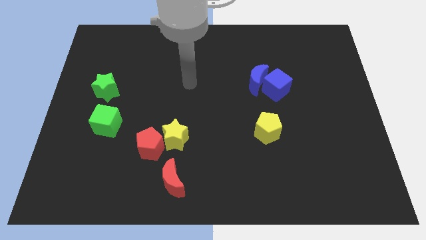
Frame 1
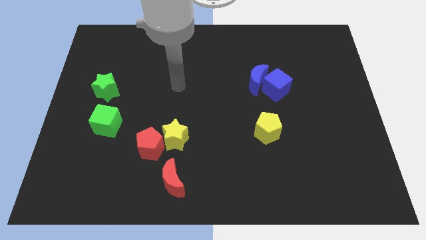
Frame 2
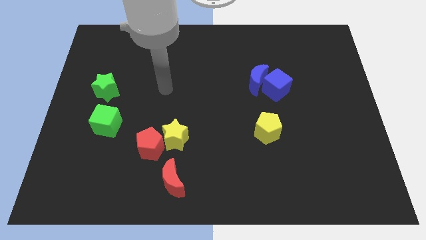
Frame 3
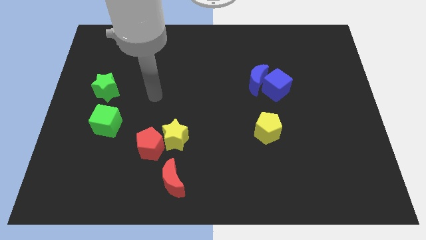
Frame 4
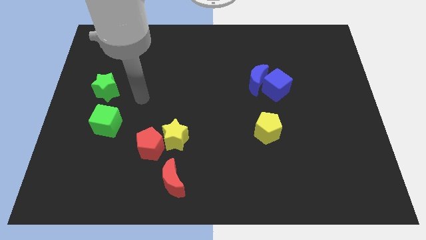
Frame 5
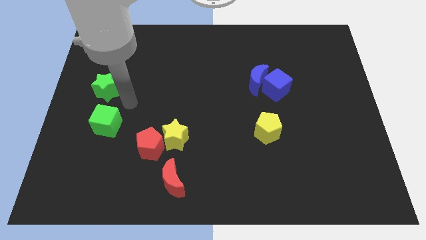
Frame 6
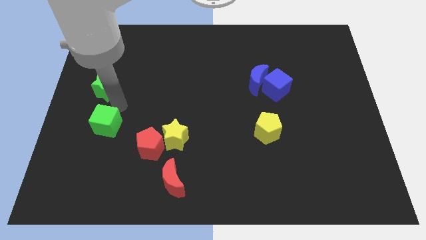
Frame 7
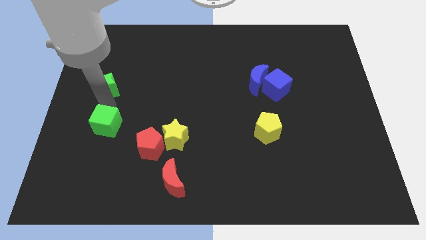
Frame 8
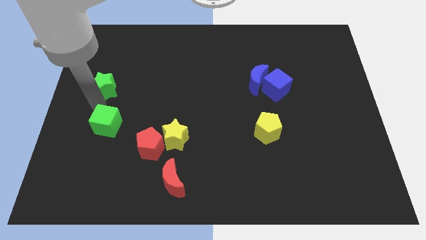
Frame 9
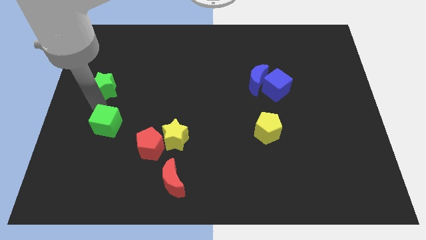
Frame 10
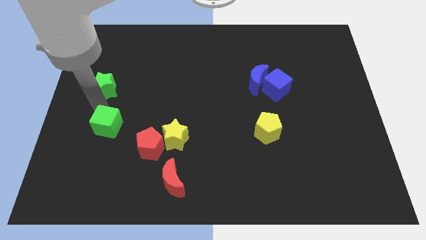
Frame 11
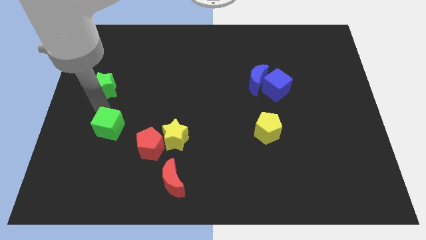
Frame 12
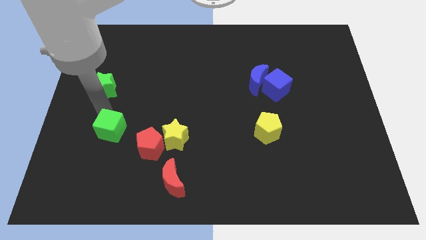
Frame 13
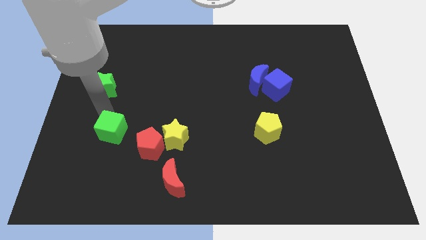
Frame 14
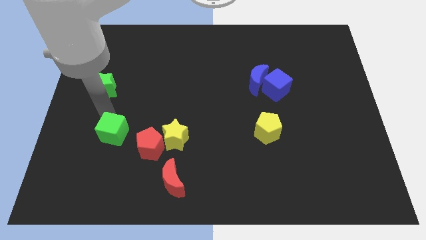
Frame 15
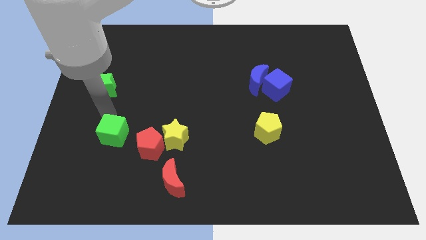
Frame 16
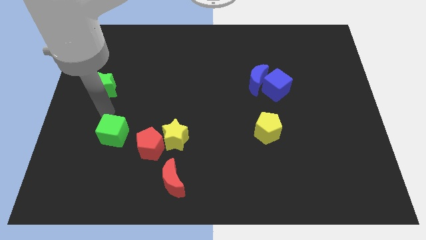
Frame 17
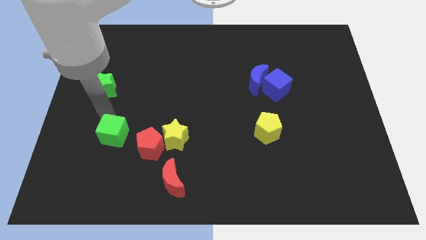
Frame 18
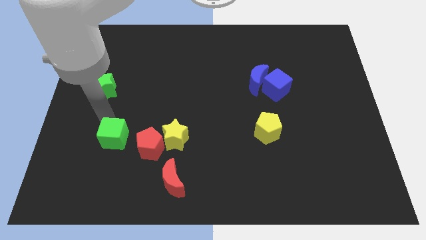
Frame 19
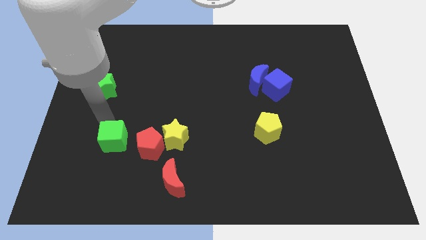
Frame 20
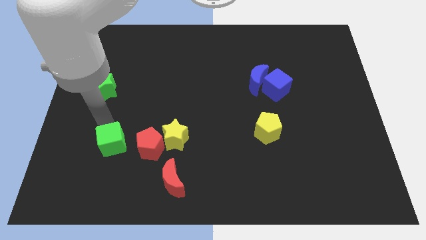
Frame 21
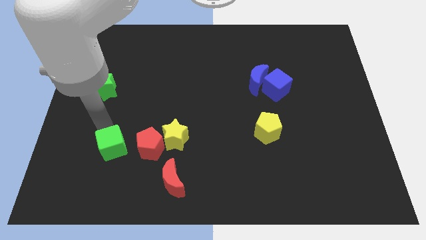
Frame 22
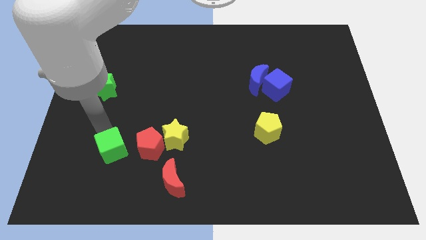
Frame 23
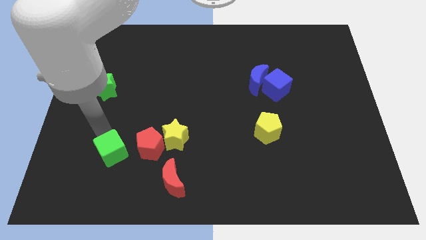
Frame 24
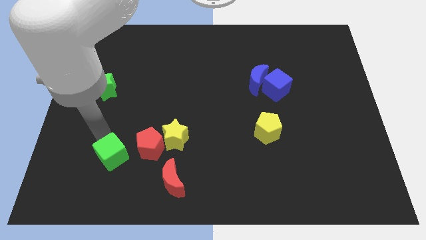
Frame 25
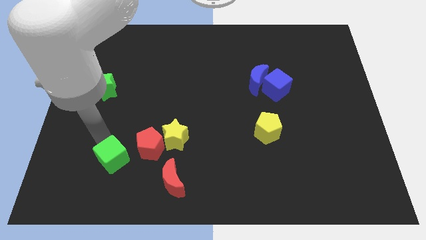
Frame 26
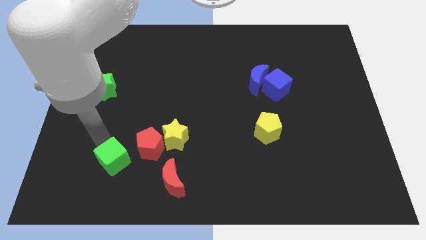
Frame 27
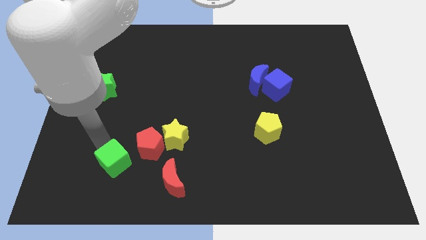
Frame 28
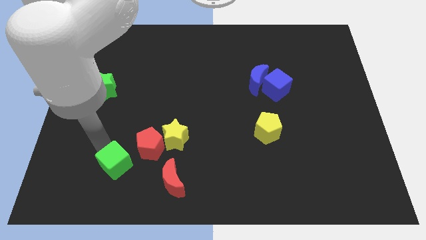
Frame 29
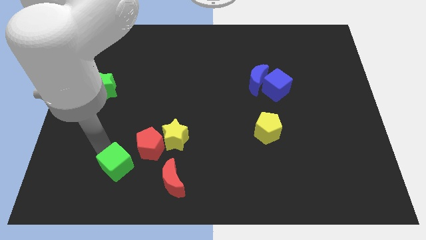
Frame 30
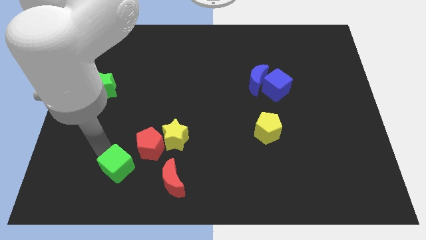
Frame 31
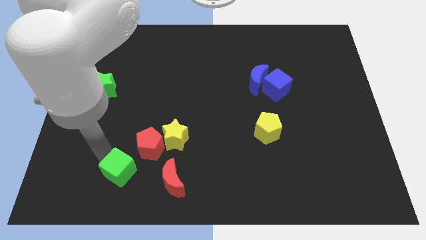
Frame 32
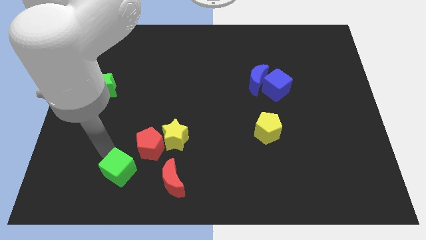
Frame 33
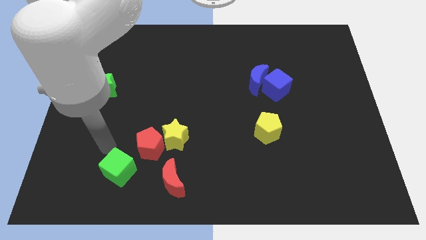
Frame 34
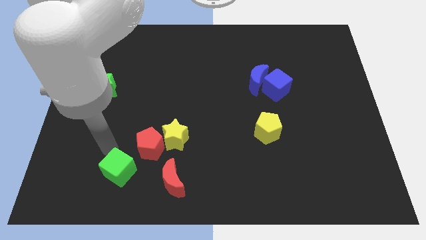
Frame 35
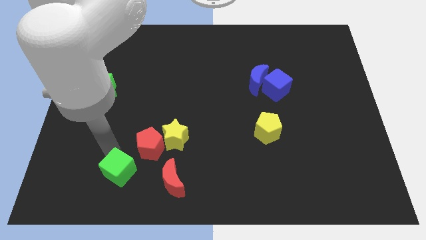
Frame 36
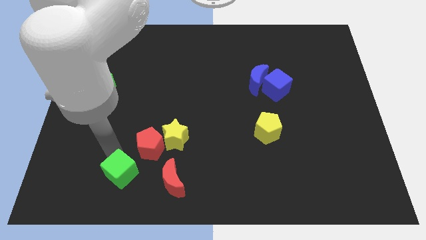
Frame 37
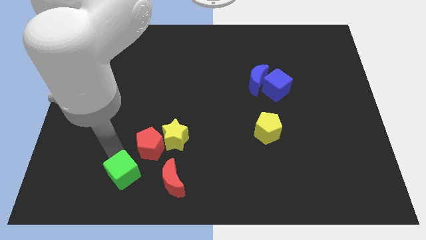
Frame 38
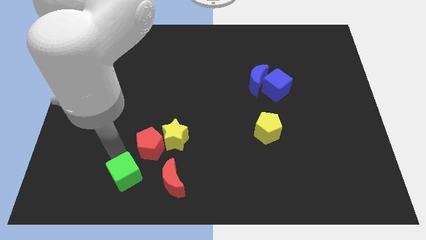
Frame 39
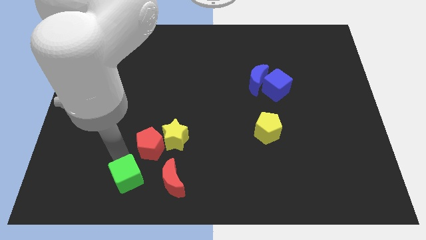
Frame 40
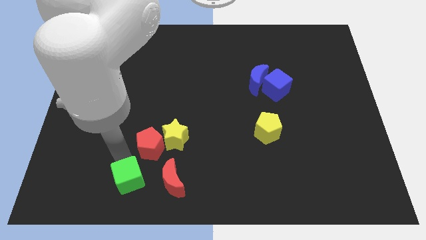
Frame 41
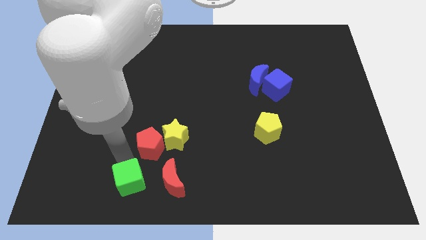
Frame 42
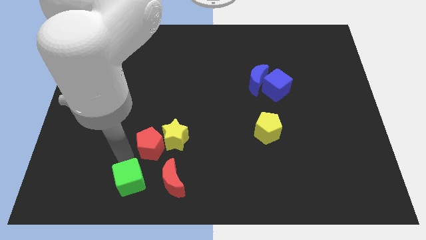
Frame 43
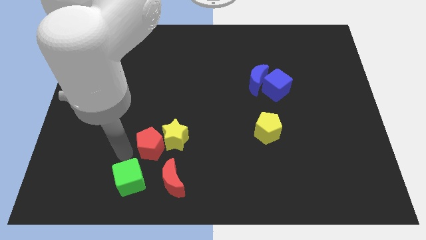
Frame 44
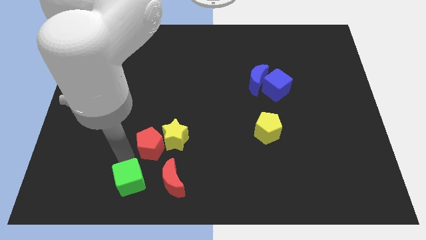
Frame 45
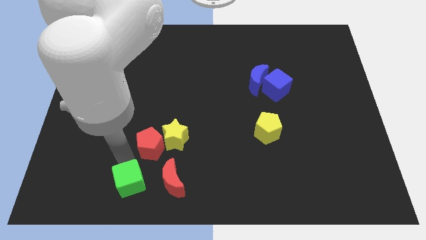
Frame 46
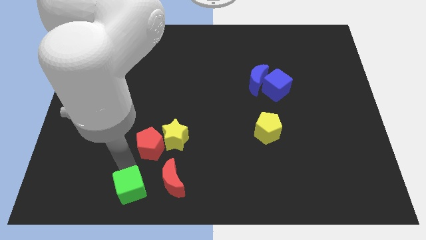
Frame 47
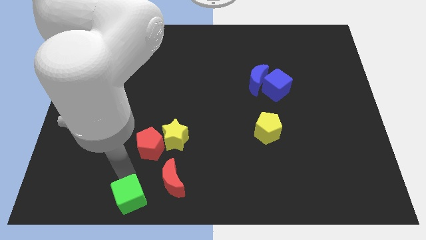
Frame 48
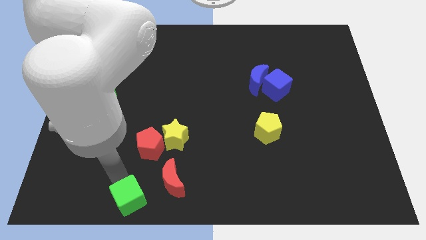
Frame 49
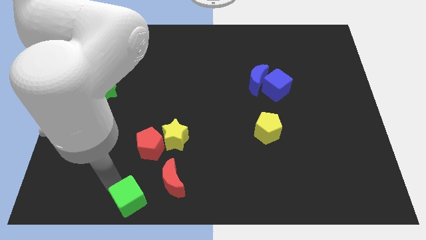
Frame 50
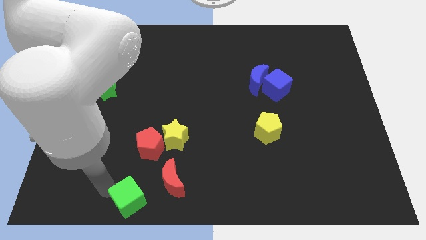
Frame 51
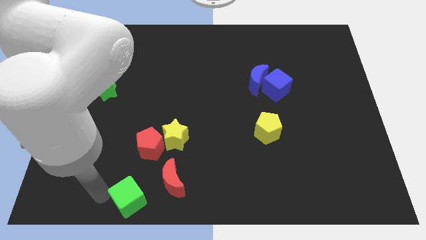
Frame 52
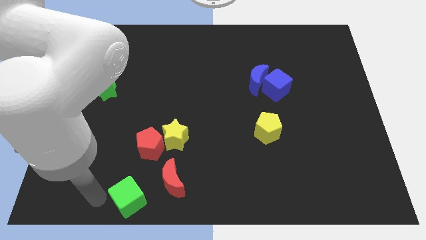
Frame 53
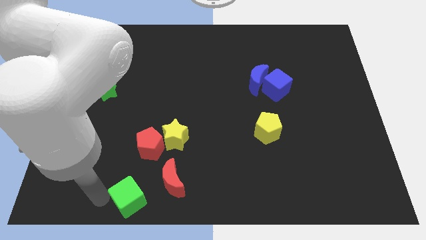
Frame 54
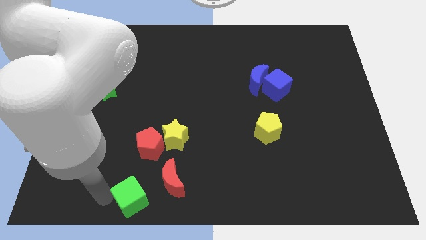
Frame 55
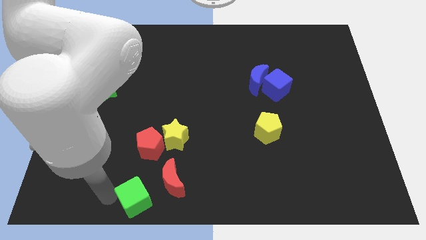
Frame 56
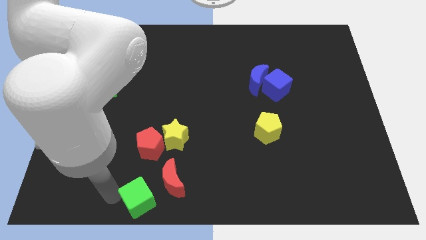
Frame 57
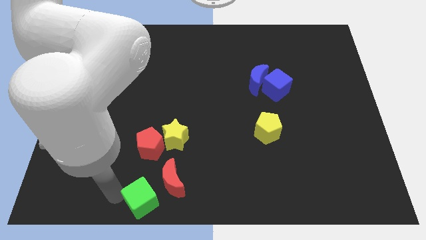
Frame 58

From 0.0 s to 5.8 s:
slide the green cube to the bottom side

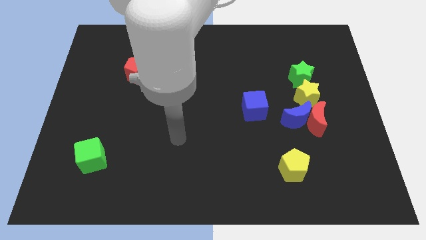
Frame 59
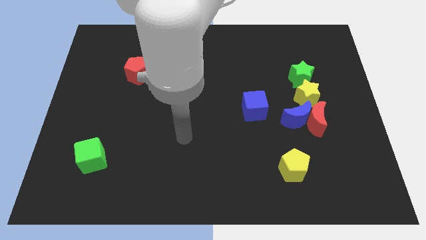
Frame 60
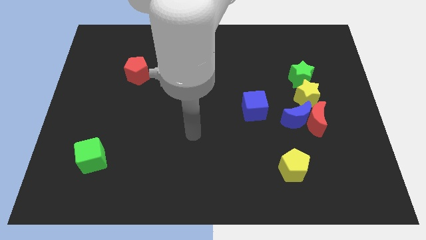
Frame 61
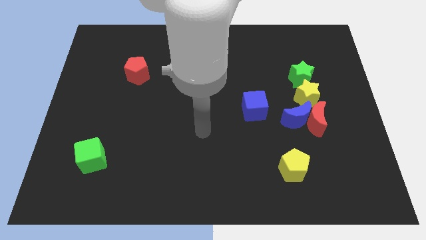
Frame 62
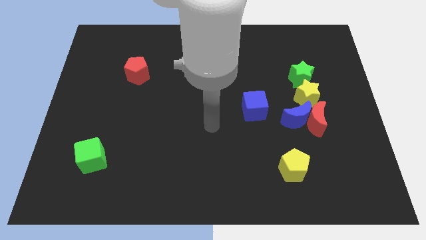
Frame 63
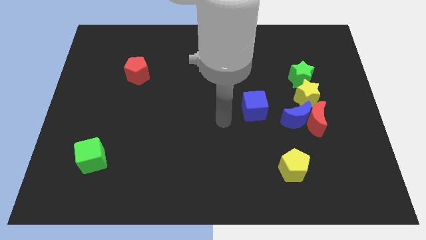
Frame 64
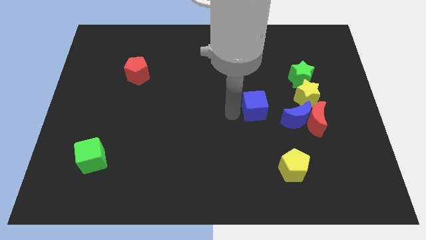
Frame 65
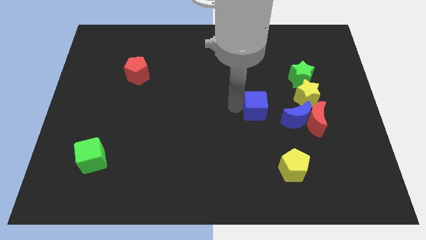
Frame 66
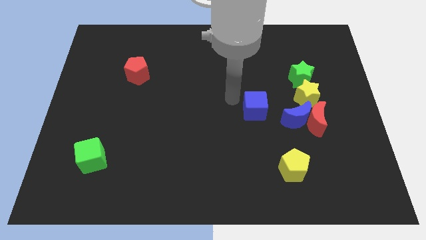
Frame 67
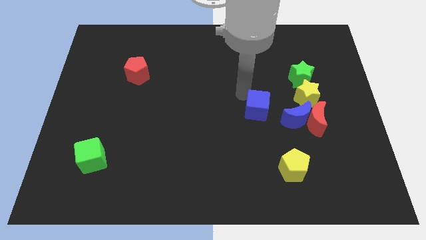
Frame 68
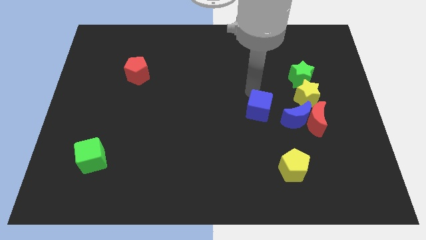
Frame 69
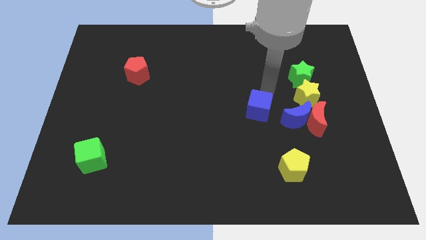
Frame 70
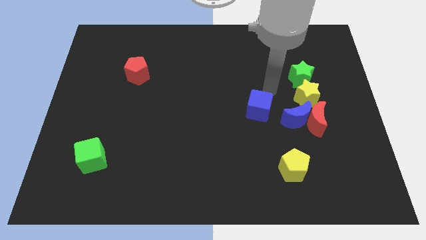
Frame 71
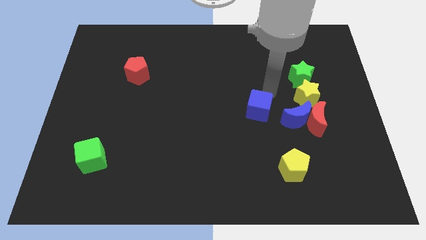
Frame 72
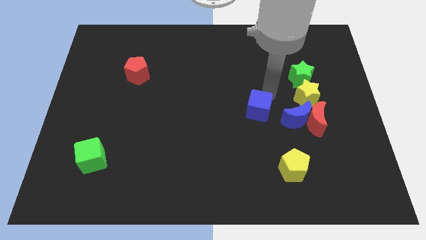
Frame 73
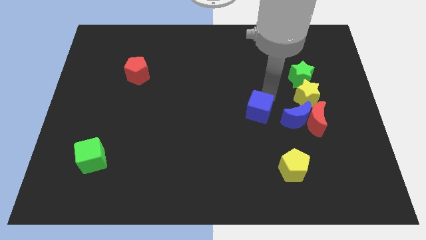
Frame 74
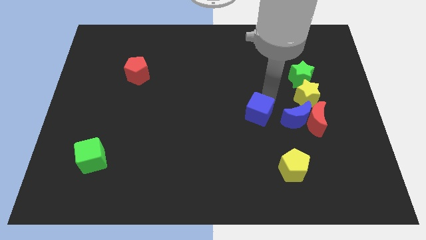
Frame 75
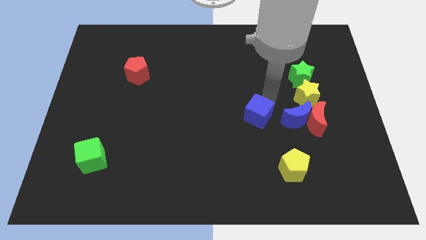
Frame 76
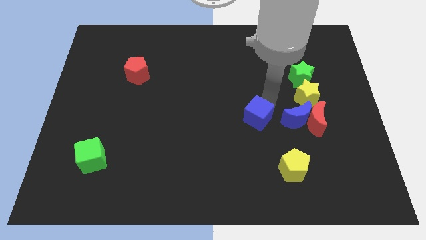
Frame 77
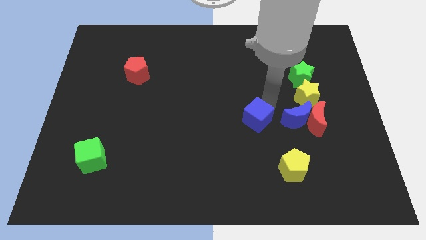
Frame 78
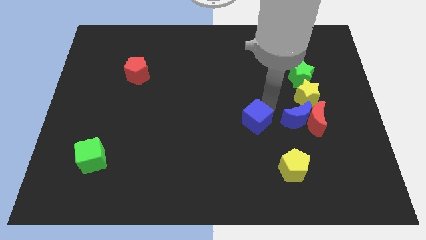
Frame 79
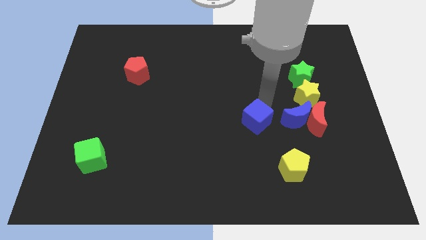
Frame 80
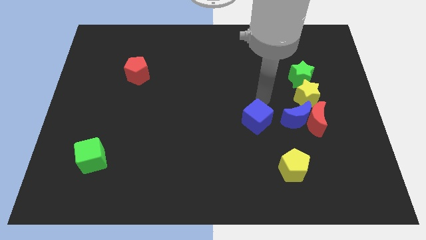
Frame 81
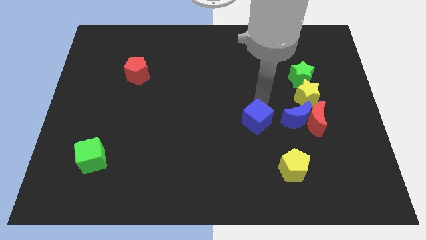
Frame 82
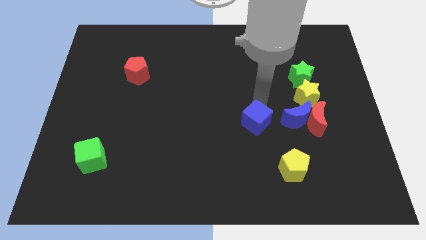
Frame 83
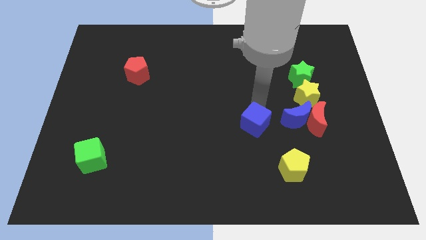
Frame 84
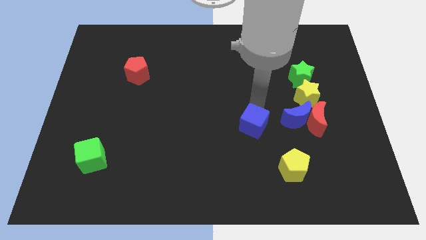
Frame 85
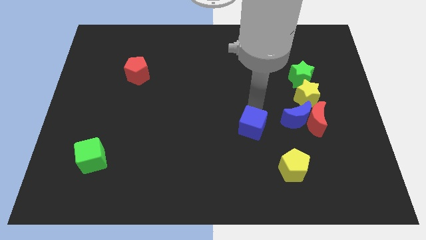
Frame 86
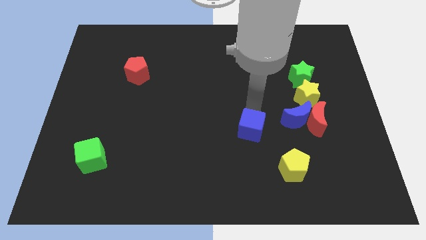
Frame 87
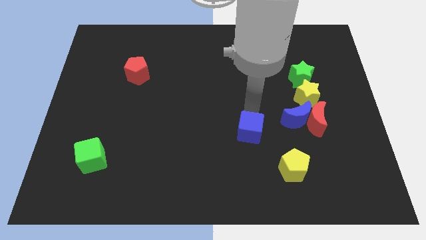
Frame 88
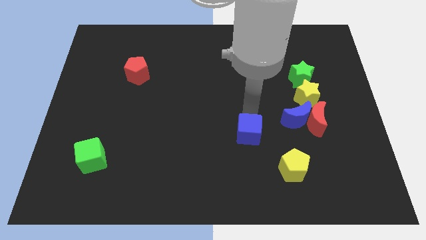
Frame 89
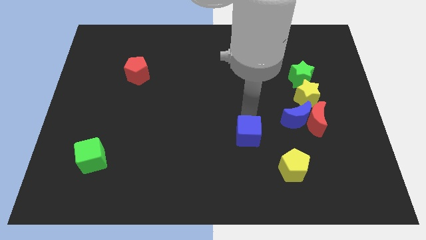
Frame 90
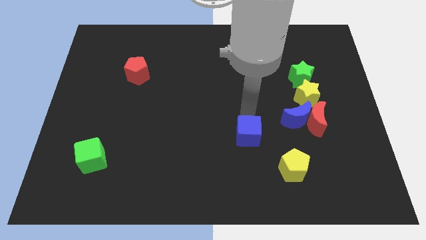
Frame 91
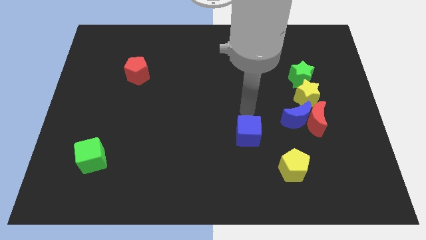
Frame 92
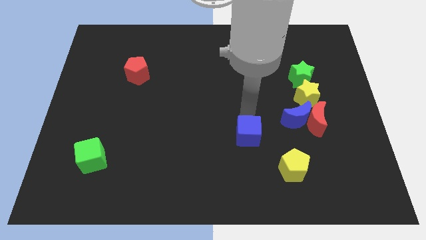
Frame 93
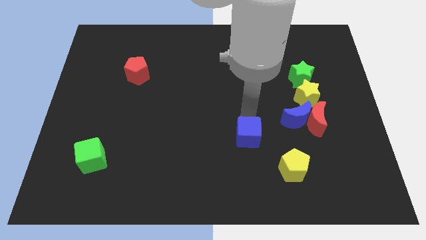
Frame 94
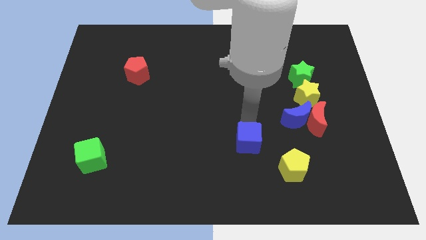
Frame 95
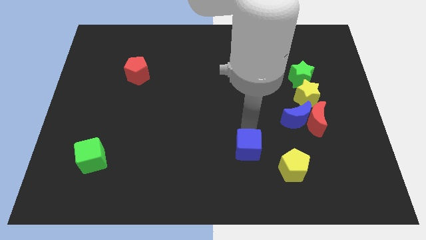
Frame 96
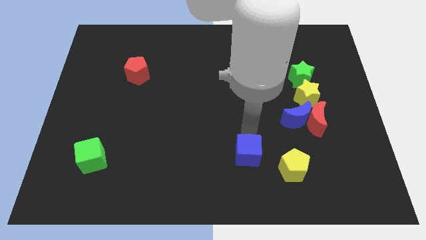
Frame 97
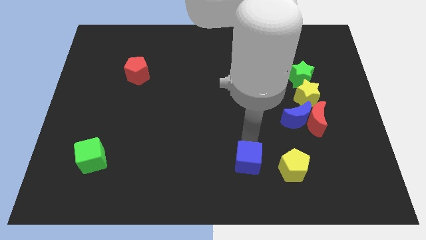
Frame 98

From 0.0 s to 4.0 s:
put the blue cube to the bottom
